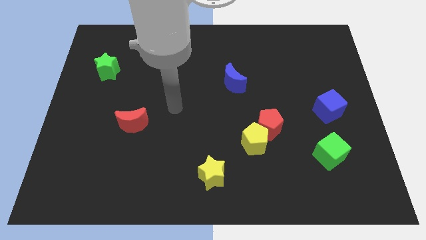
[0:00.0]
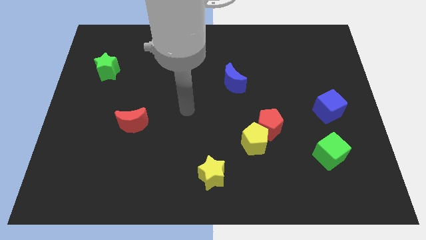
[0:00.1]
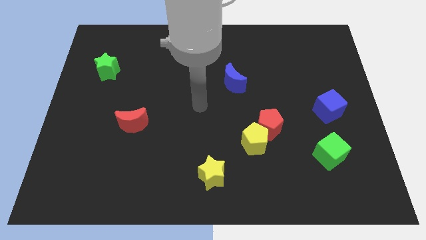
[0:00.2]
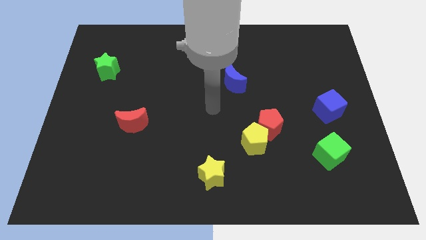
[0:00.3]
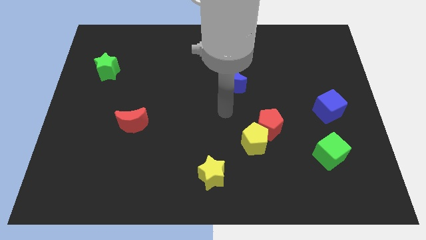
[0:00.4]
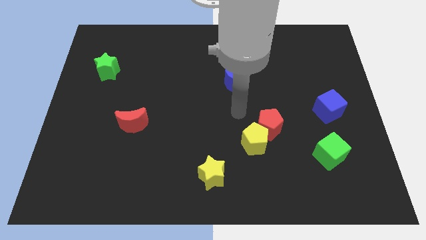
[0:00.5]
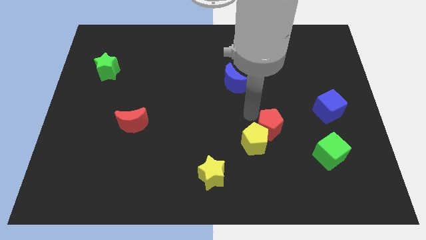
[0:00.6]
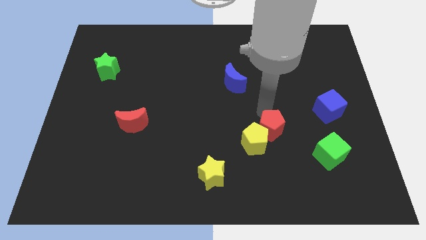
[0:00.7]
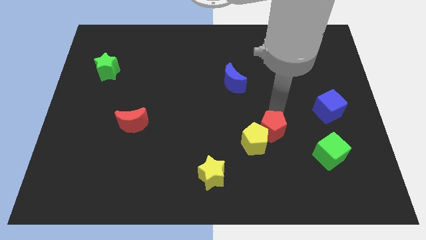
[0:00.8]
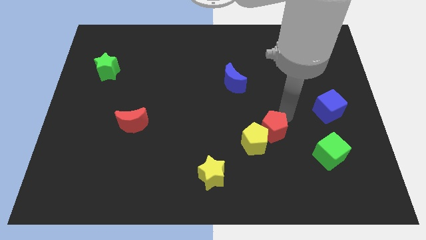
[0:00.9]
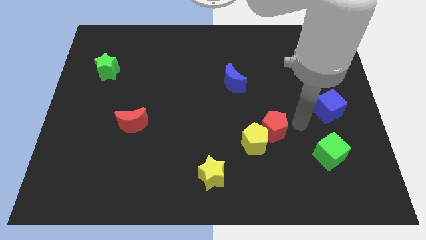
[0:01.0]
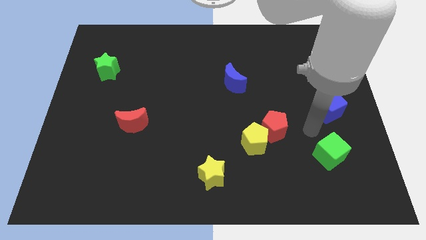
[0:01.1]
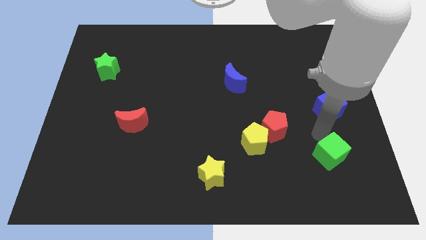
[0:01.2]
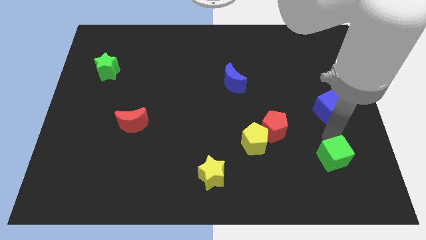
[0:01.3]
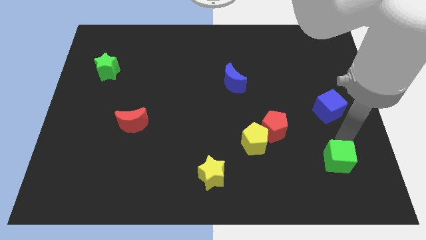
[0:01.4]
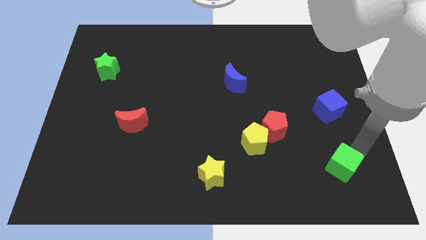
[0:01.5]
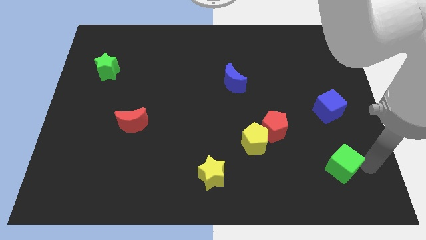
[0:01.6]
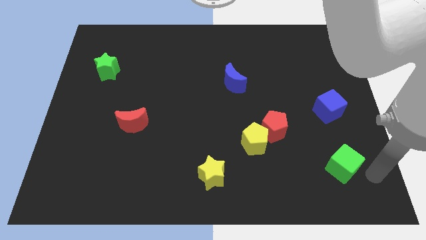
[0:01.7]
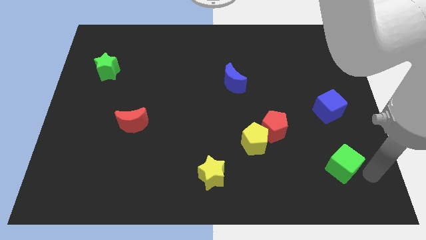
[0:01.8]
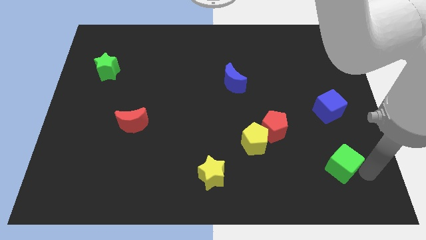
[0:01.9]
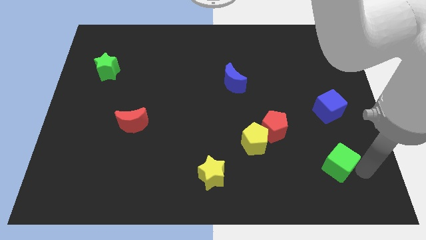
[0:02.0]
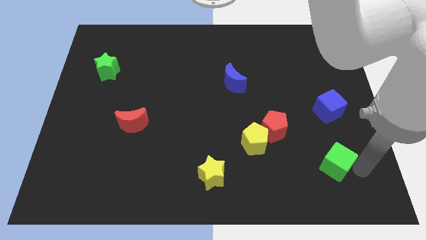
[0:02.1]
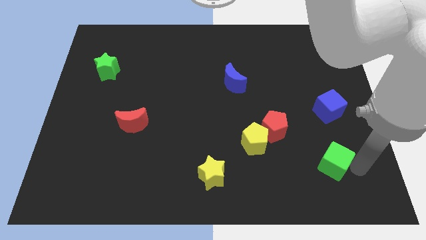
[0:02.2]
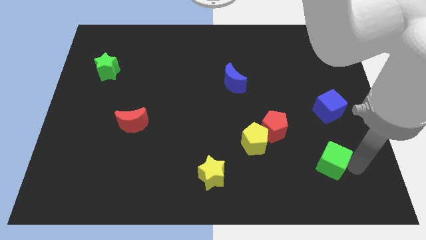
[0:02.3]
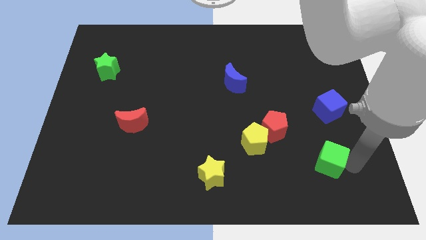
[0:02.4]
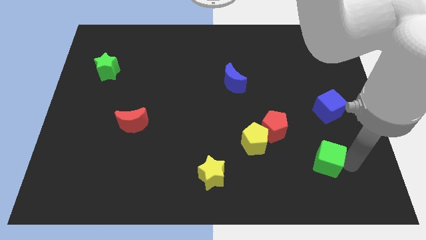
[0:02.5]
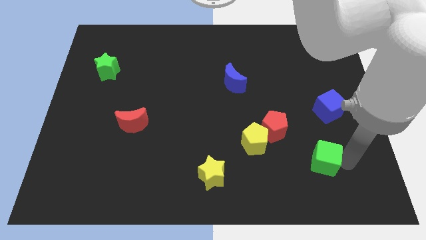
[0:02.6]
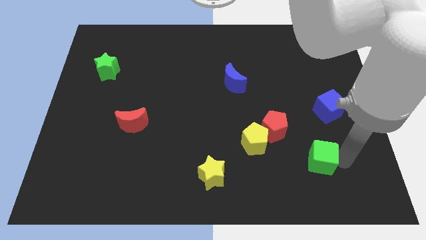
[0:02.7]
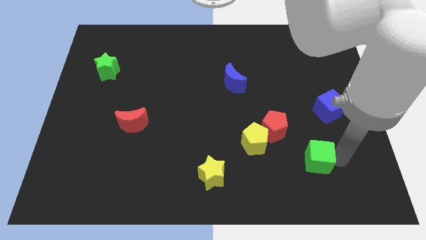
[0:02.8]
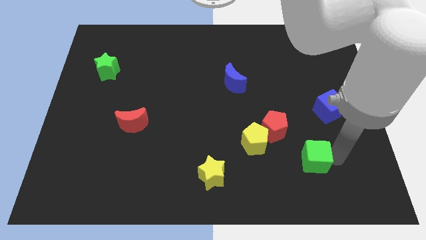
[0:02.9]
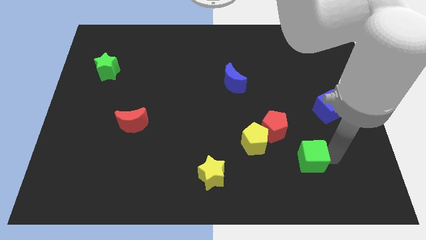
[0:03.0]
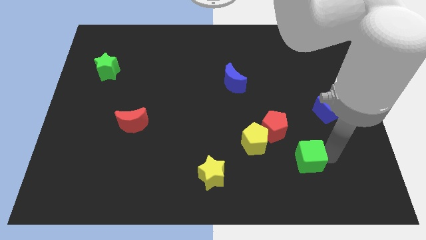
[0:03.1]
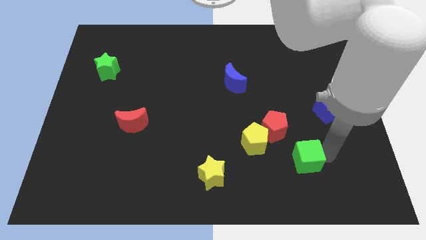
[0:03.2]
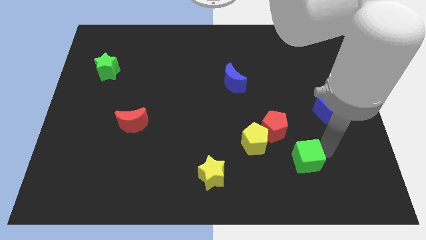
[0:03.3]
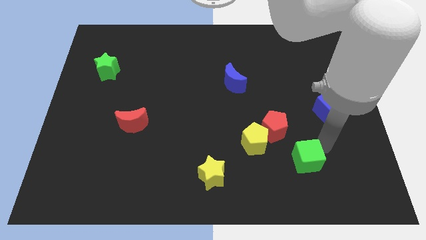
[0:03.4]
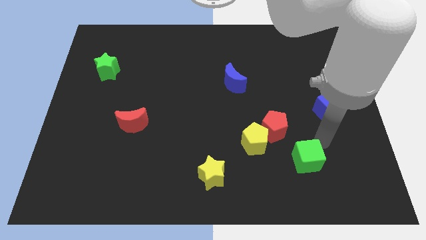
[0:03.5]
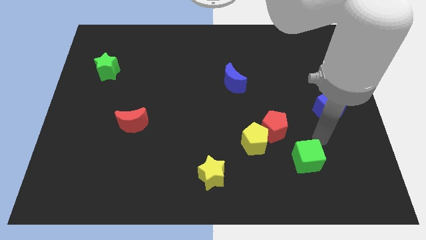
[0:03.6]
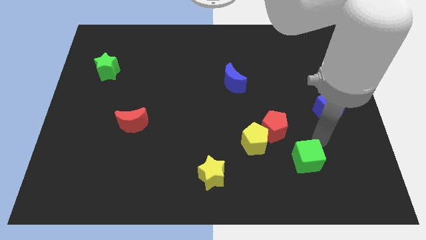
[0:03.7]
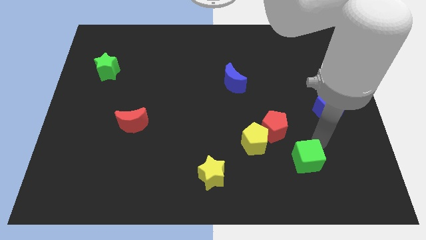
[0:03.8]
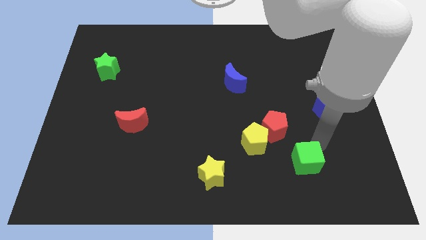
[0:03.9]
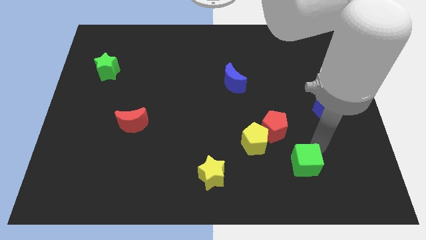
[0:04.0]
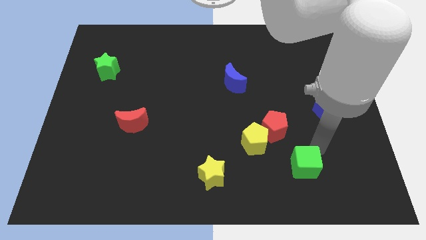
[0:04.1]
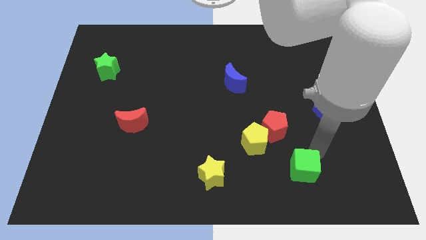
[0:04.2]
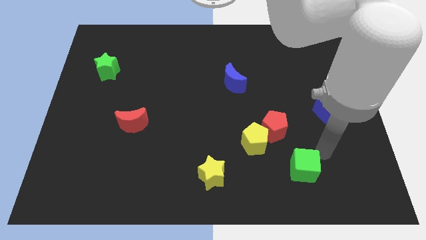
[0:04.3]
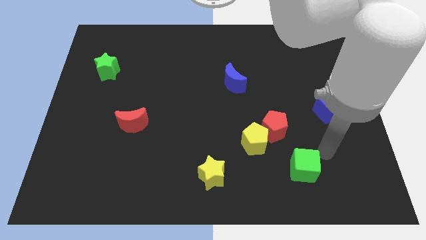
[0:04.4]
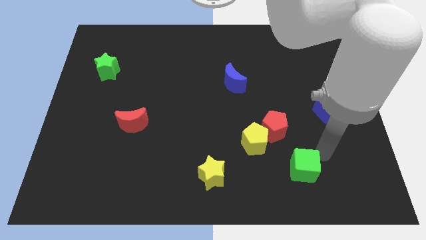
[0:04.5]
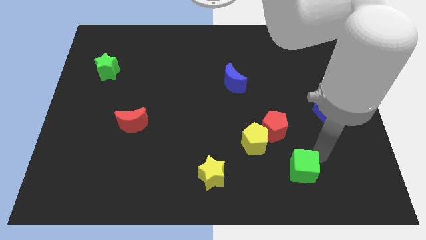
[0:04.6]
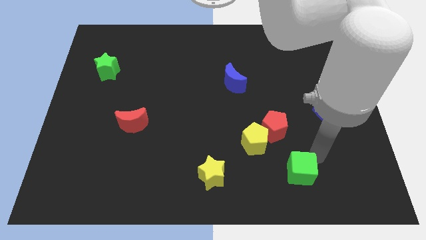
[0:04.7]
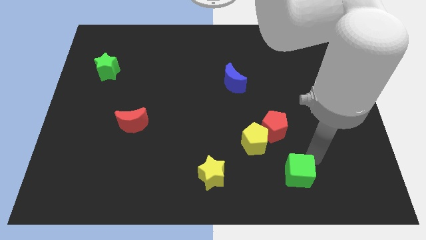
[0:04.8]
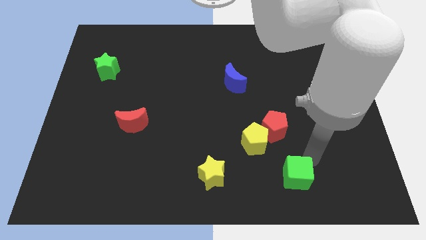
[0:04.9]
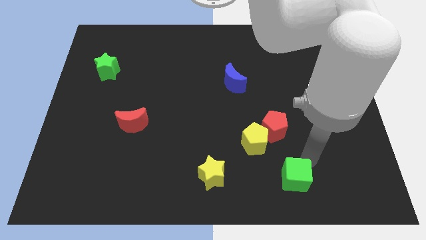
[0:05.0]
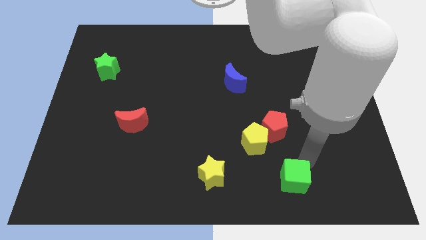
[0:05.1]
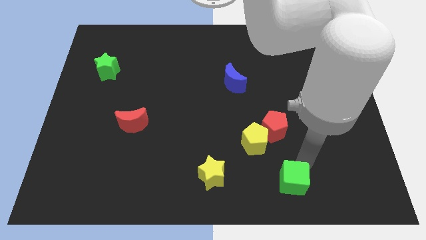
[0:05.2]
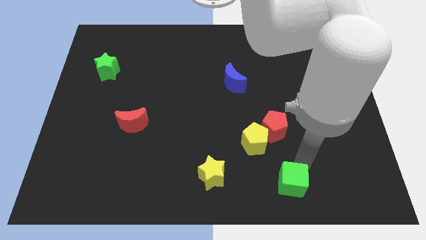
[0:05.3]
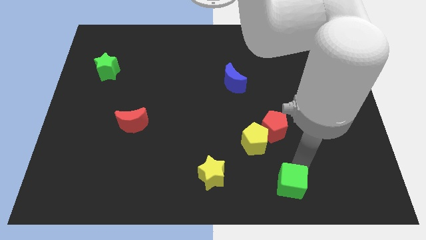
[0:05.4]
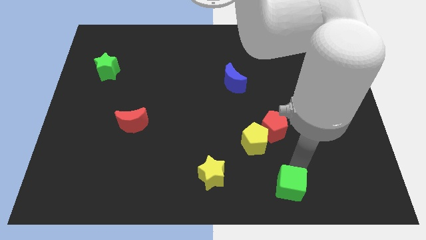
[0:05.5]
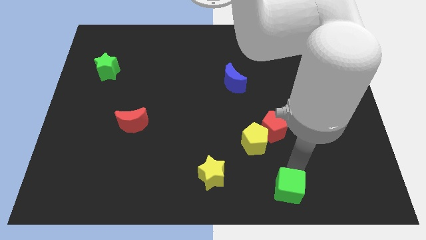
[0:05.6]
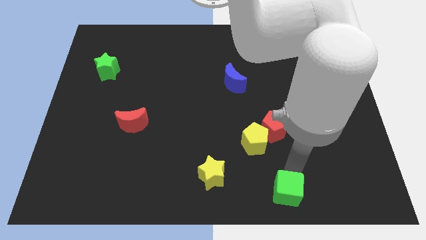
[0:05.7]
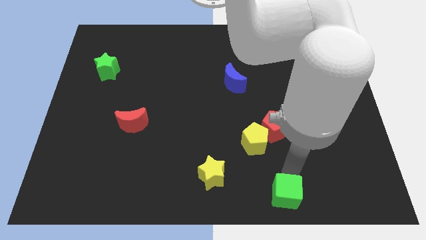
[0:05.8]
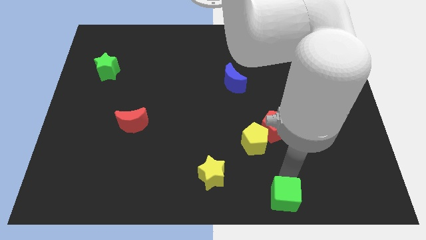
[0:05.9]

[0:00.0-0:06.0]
push the green cube to the bottom
